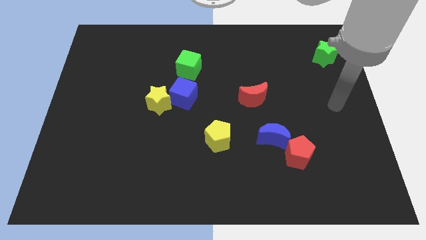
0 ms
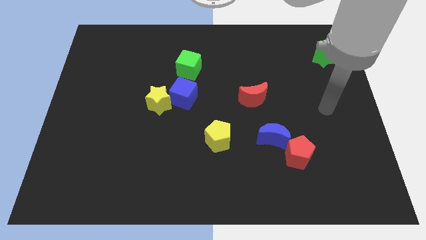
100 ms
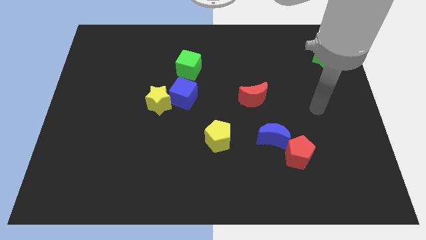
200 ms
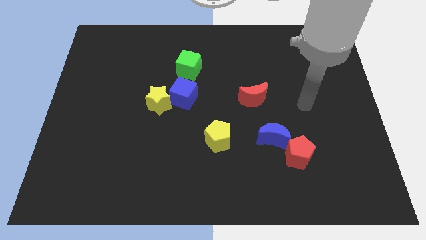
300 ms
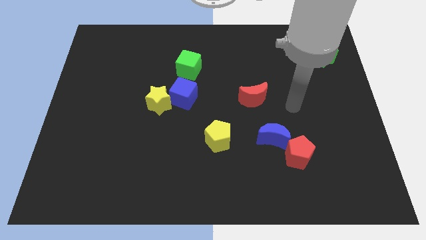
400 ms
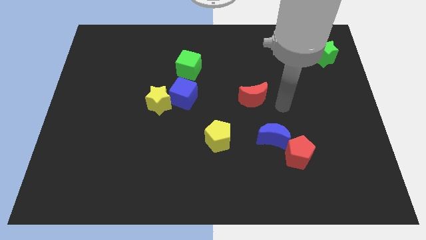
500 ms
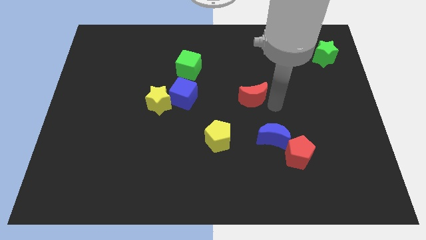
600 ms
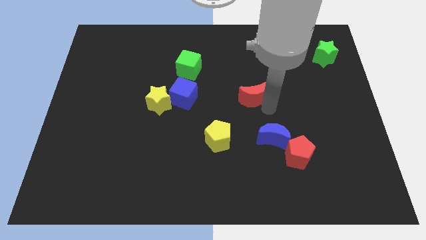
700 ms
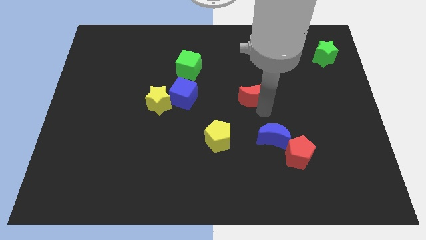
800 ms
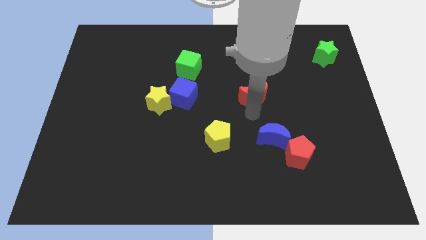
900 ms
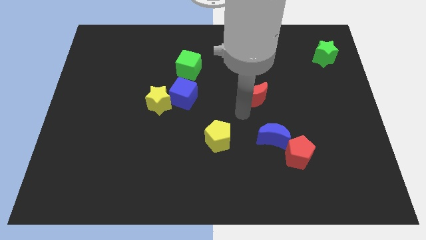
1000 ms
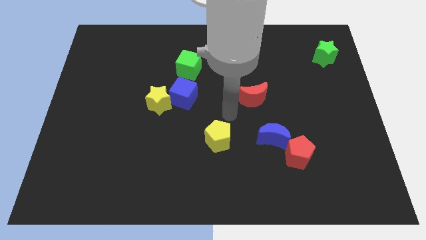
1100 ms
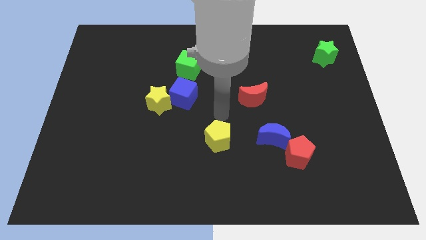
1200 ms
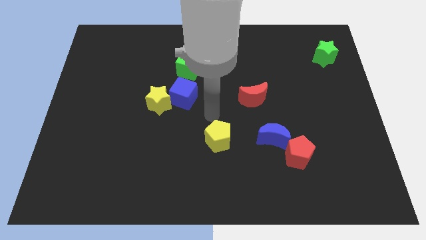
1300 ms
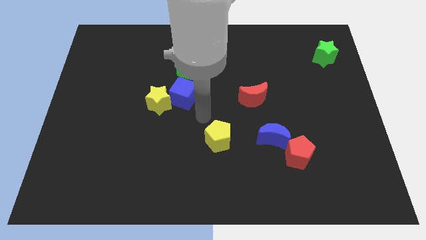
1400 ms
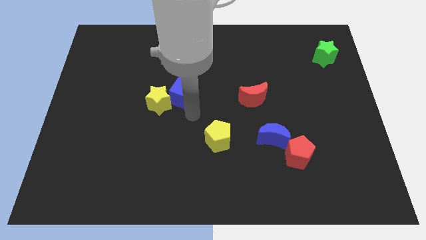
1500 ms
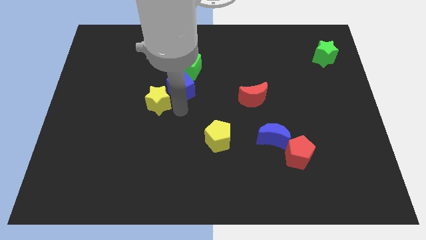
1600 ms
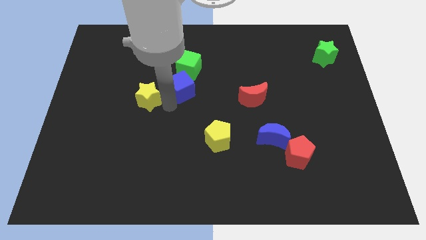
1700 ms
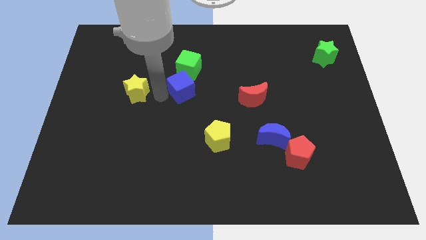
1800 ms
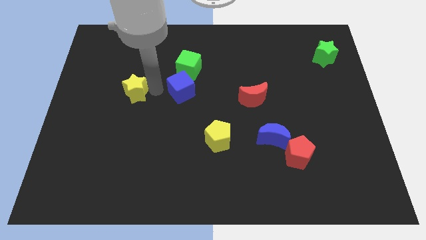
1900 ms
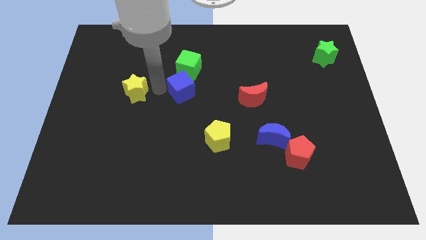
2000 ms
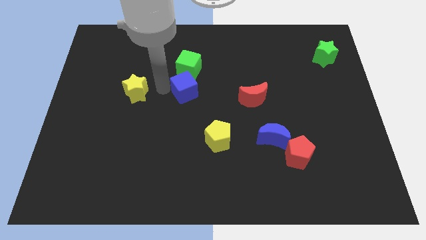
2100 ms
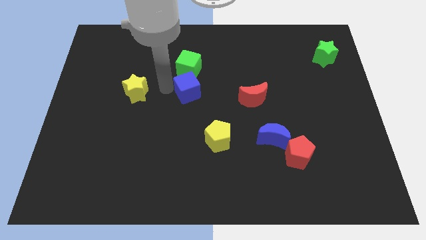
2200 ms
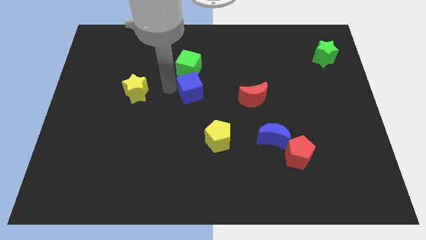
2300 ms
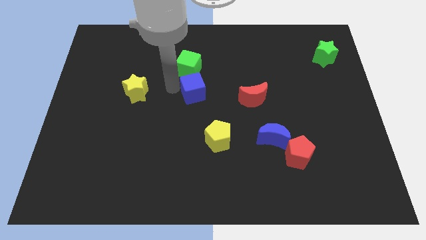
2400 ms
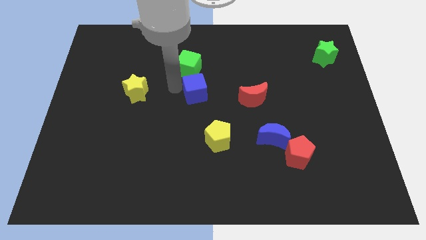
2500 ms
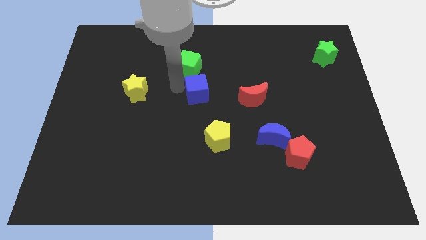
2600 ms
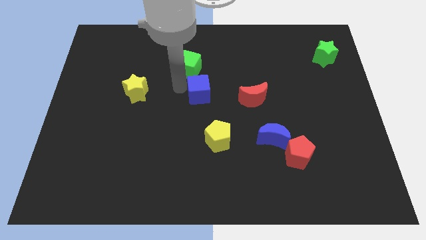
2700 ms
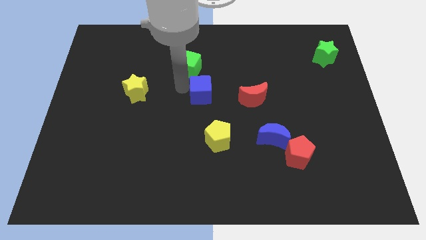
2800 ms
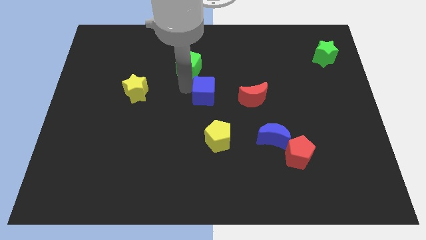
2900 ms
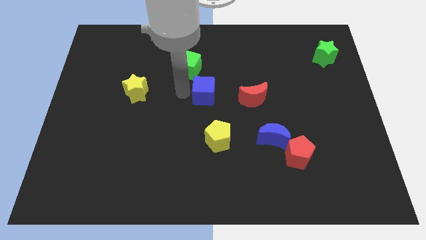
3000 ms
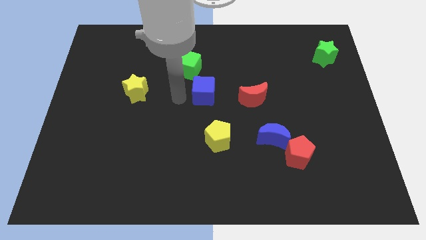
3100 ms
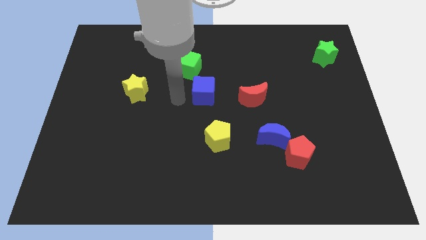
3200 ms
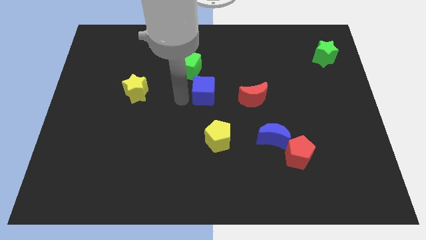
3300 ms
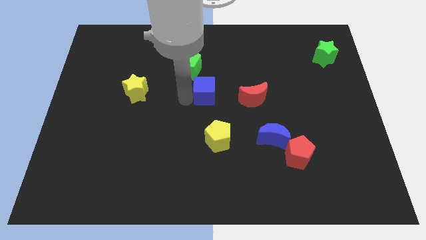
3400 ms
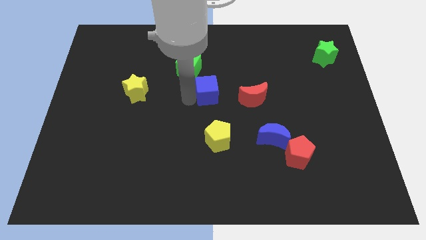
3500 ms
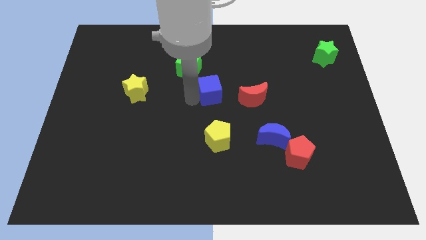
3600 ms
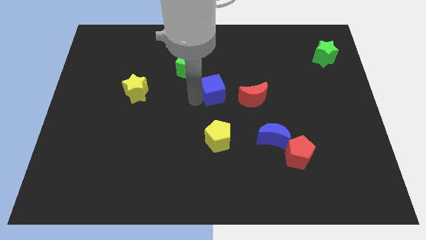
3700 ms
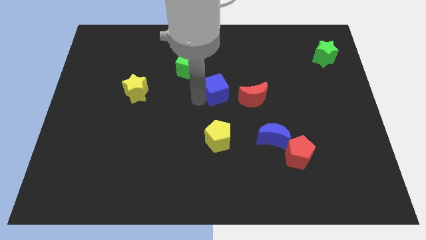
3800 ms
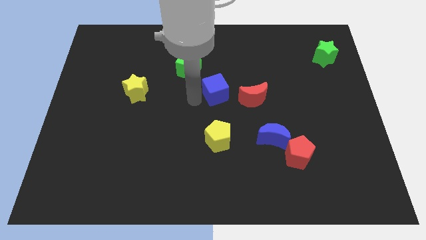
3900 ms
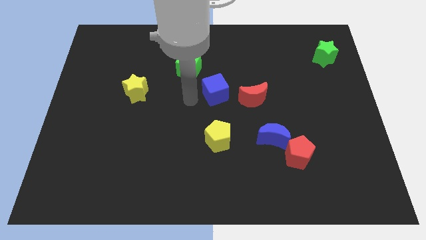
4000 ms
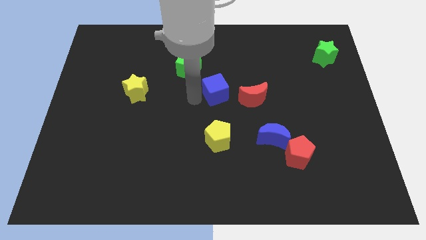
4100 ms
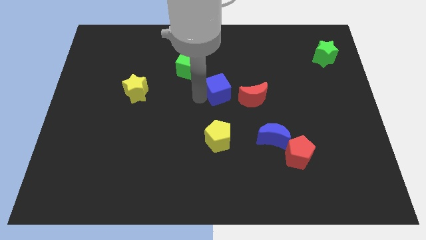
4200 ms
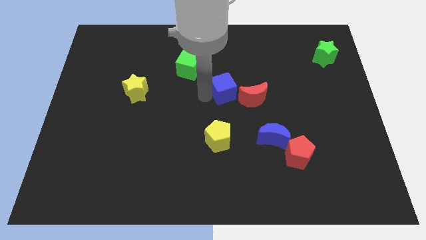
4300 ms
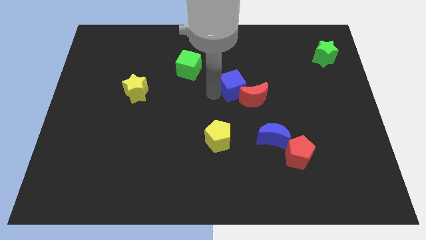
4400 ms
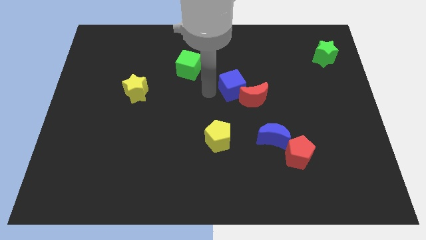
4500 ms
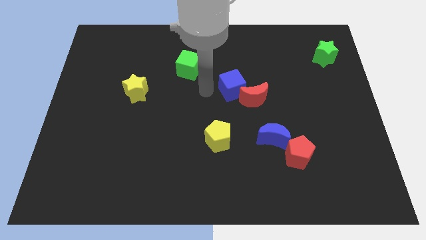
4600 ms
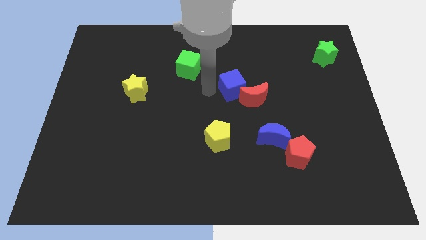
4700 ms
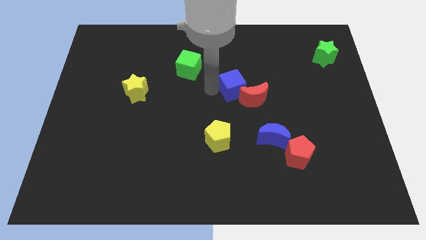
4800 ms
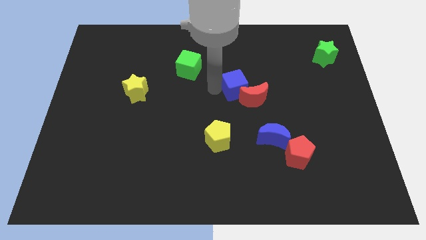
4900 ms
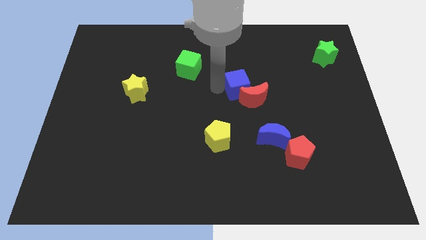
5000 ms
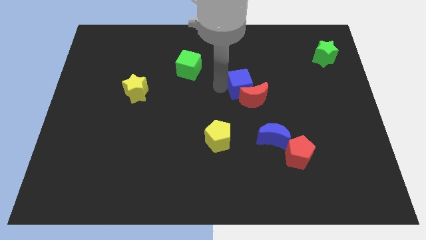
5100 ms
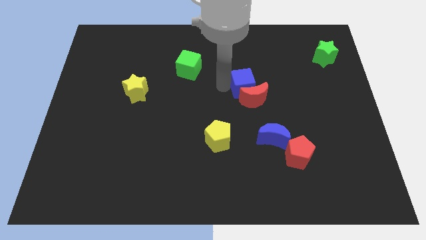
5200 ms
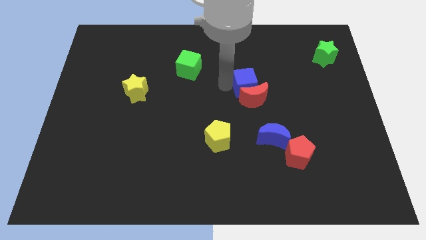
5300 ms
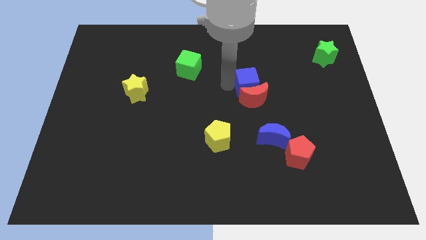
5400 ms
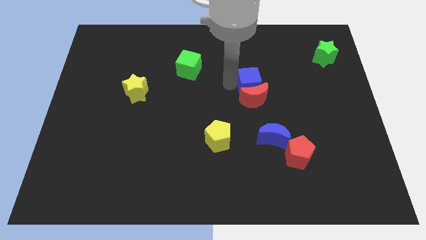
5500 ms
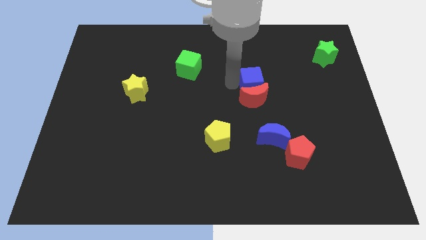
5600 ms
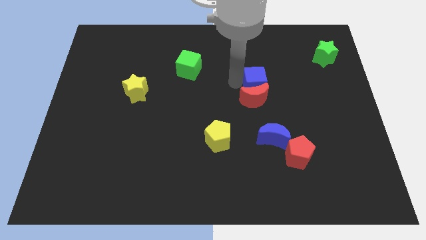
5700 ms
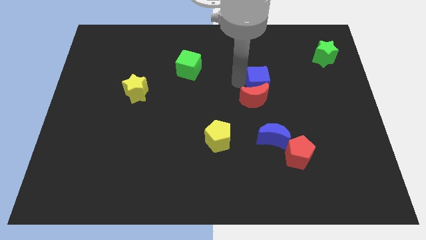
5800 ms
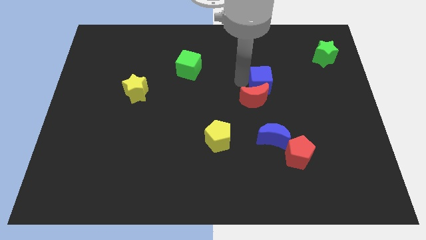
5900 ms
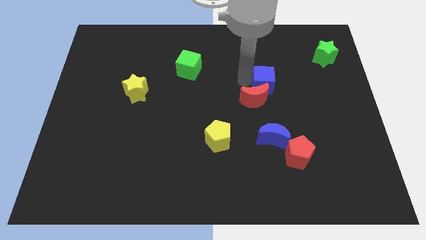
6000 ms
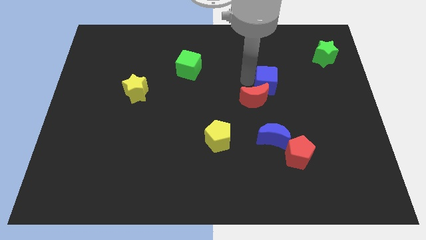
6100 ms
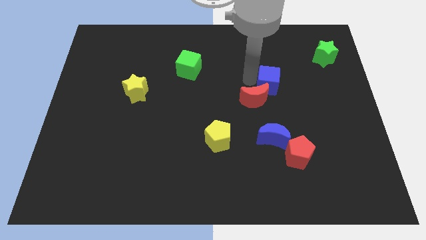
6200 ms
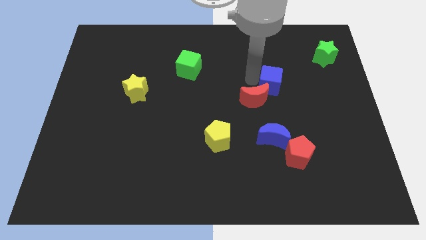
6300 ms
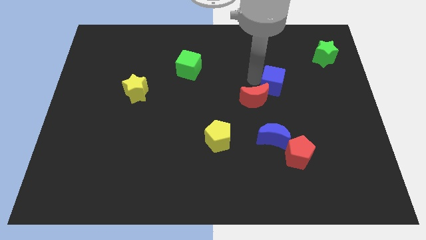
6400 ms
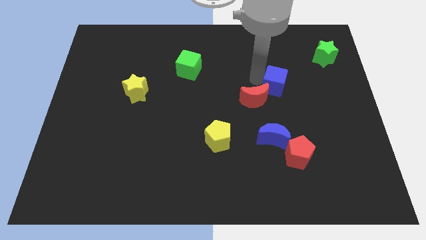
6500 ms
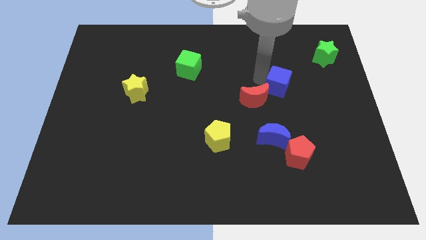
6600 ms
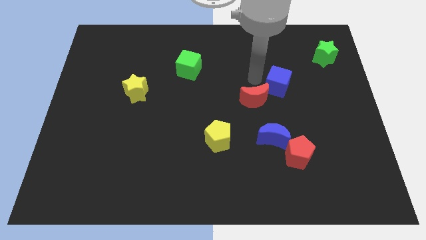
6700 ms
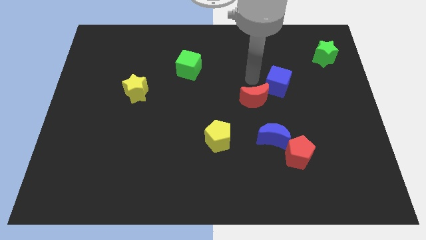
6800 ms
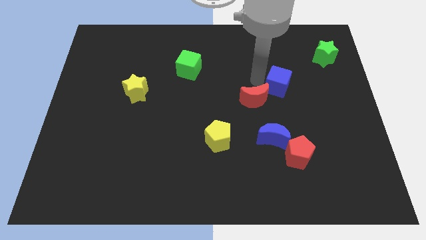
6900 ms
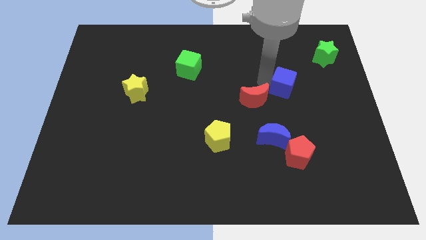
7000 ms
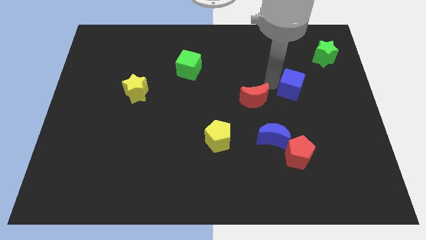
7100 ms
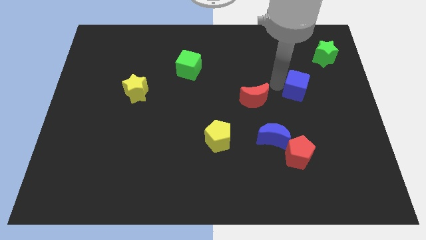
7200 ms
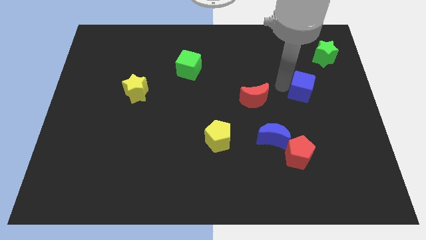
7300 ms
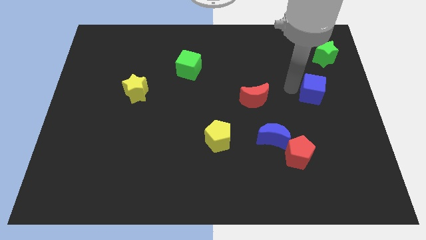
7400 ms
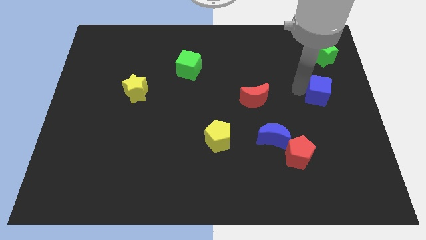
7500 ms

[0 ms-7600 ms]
push the blue cube to the right side
